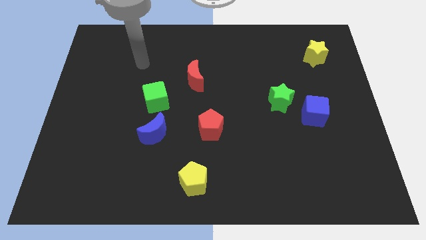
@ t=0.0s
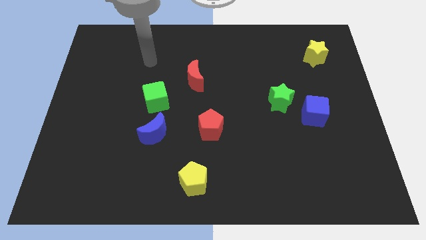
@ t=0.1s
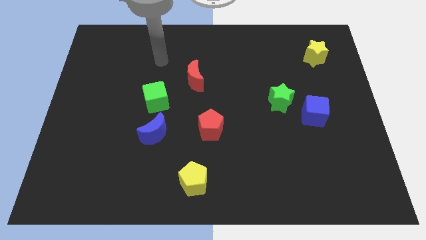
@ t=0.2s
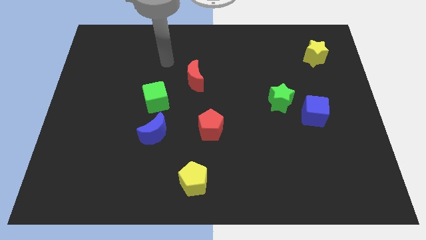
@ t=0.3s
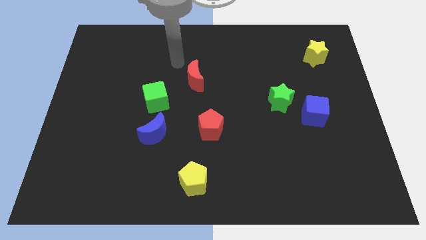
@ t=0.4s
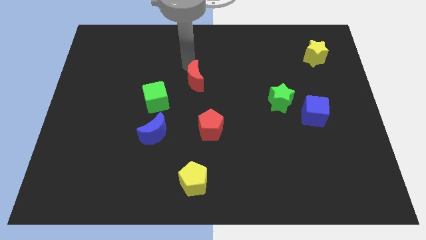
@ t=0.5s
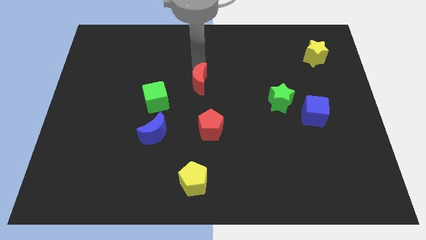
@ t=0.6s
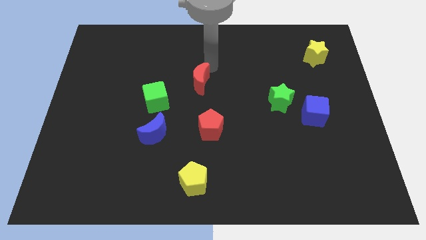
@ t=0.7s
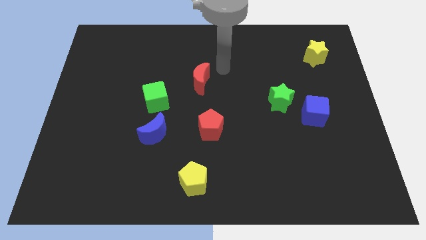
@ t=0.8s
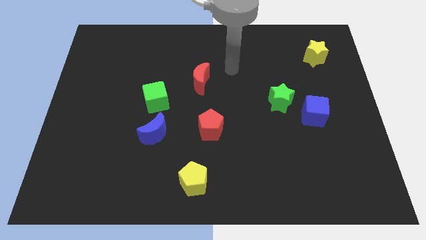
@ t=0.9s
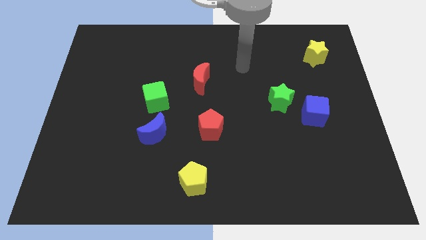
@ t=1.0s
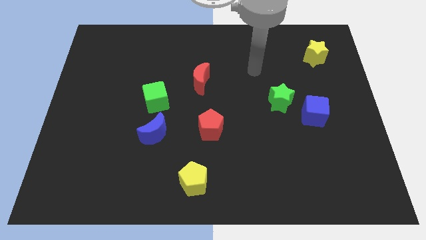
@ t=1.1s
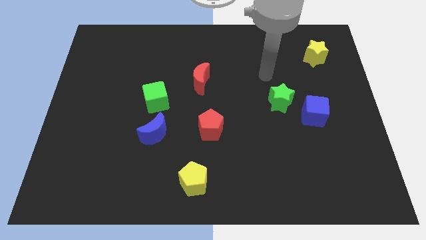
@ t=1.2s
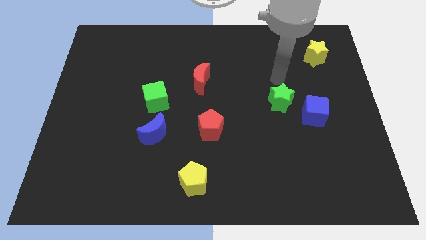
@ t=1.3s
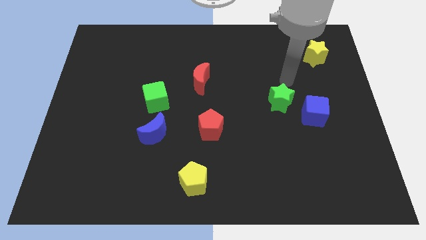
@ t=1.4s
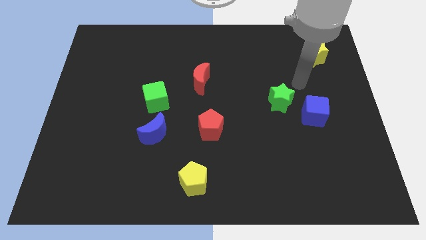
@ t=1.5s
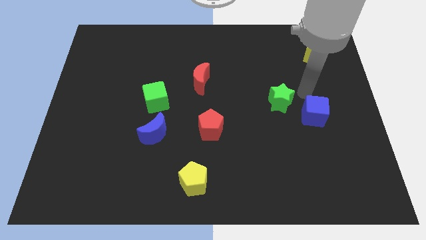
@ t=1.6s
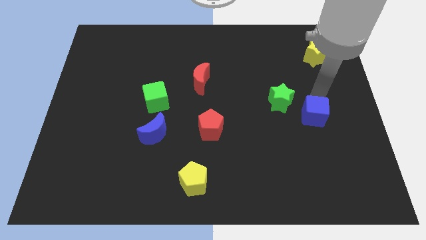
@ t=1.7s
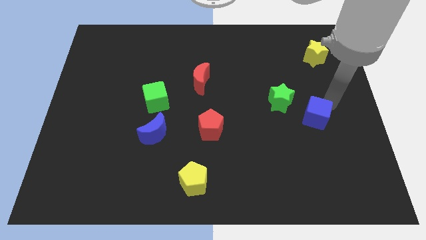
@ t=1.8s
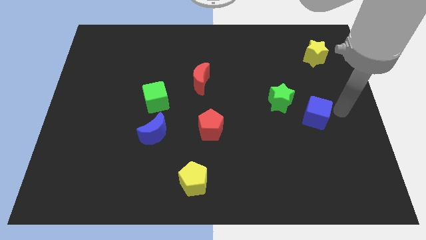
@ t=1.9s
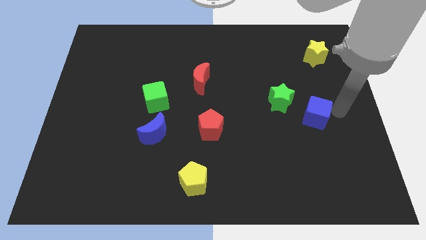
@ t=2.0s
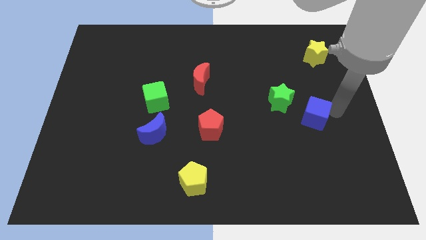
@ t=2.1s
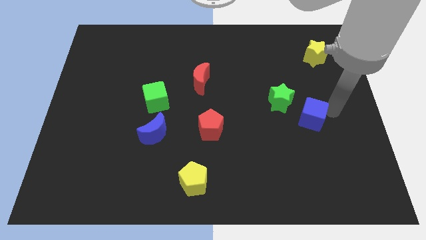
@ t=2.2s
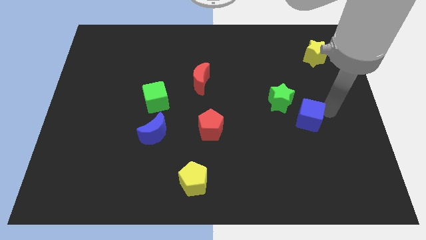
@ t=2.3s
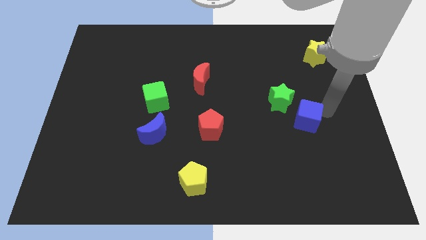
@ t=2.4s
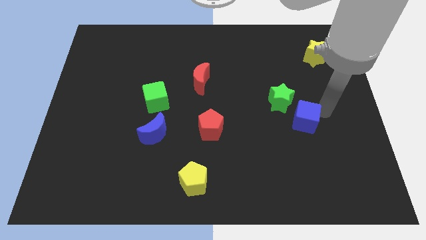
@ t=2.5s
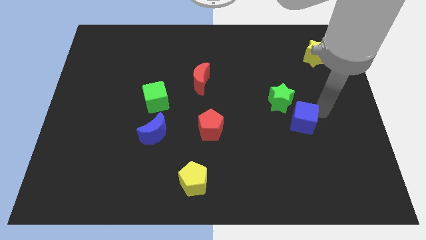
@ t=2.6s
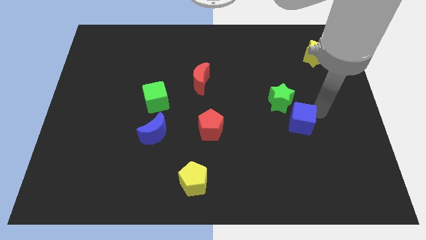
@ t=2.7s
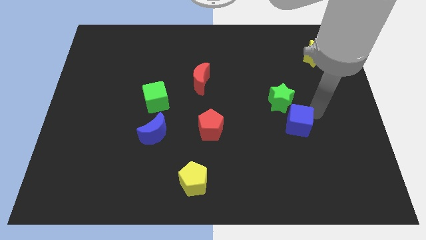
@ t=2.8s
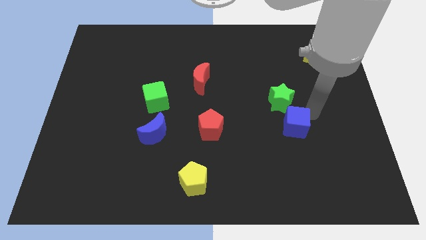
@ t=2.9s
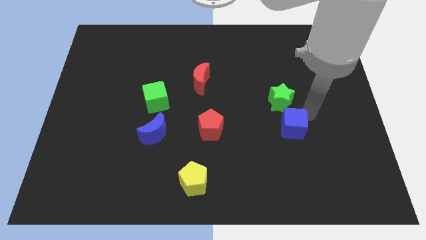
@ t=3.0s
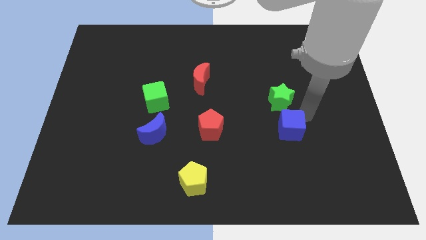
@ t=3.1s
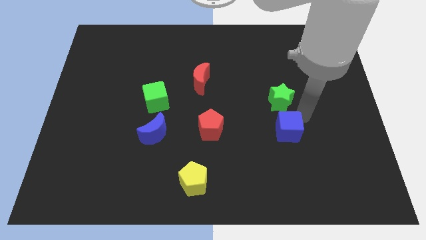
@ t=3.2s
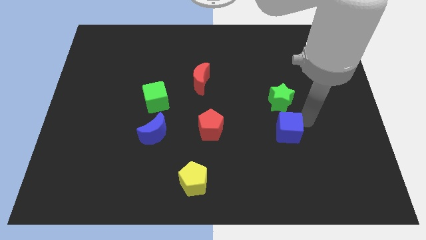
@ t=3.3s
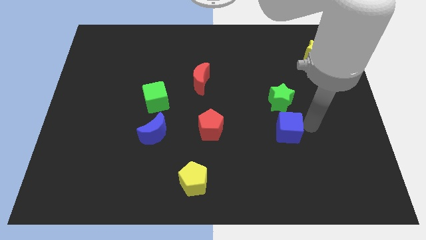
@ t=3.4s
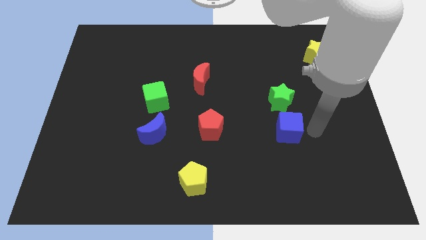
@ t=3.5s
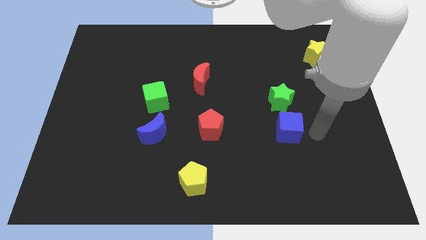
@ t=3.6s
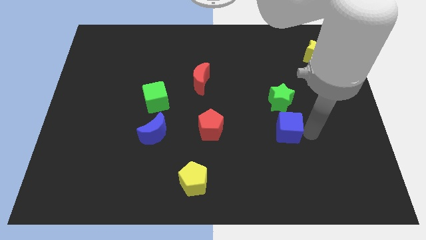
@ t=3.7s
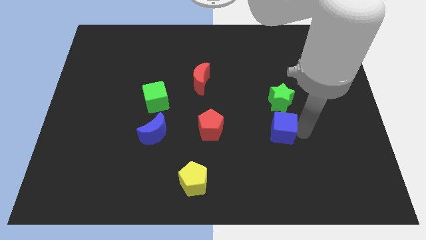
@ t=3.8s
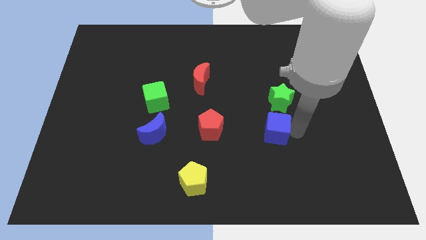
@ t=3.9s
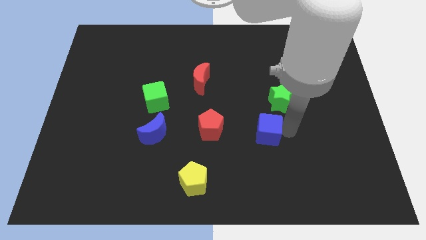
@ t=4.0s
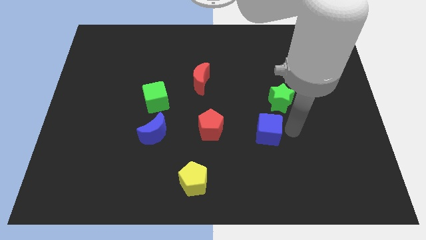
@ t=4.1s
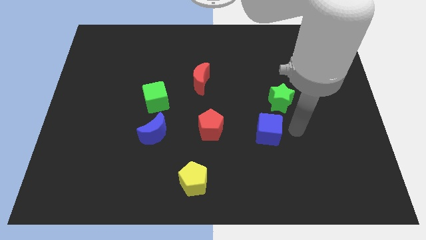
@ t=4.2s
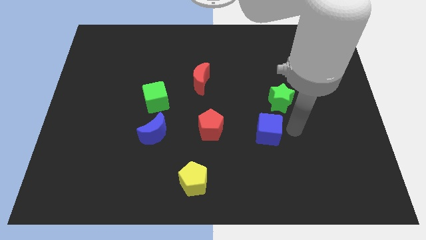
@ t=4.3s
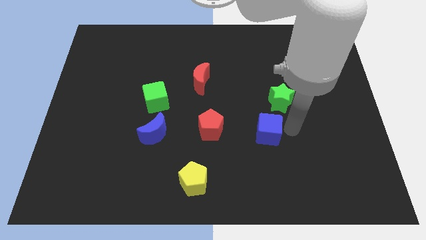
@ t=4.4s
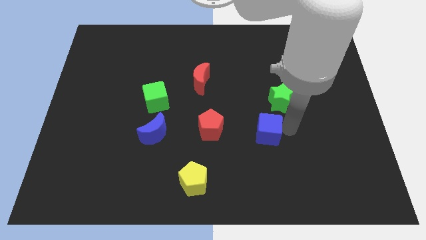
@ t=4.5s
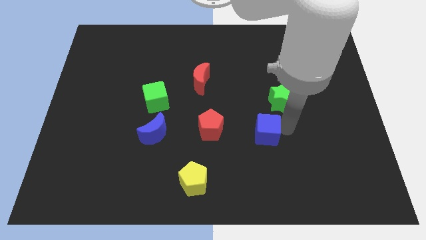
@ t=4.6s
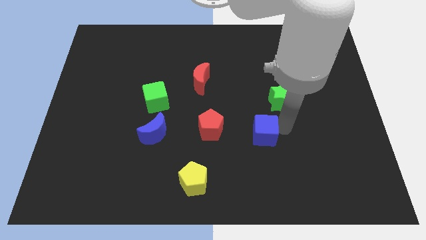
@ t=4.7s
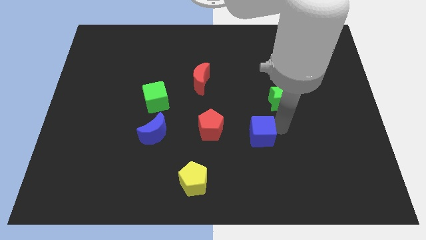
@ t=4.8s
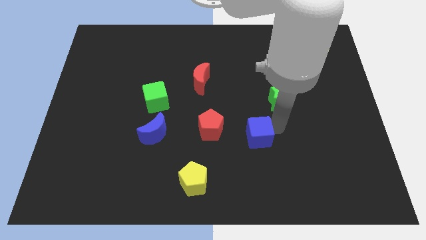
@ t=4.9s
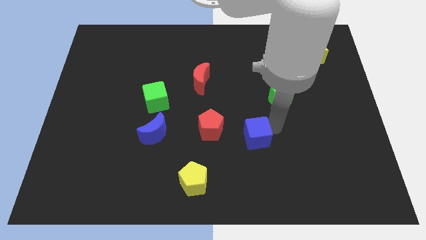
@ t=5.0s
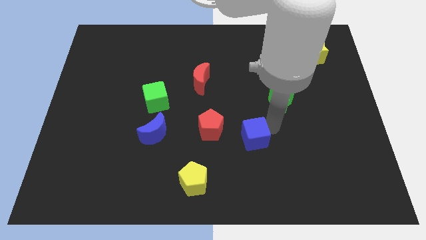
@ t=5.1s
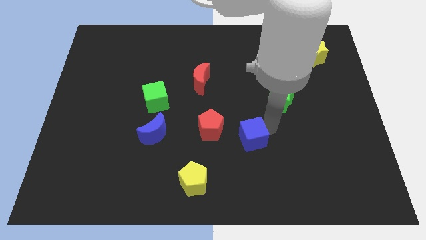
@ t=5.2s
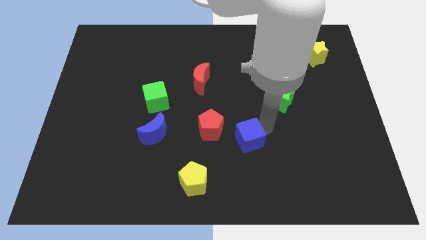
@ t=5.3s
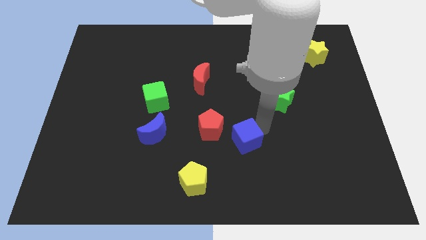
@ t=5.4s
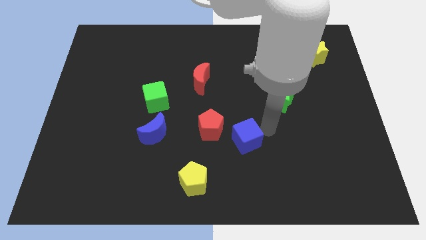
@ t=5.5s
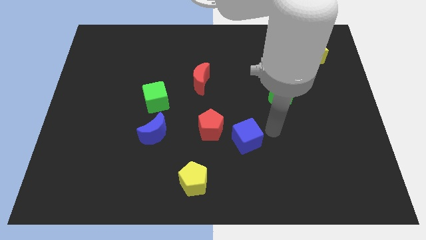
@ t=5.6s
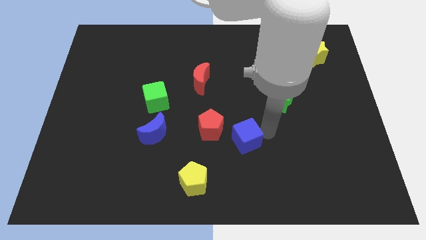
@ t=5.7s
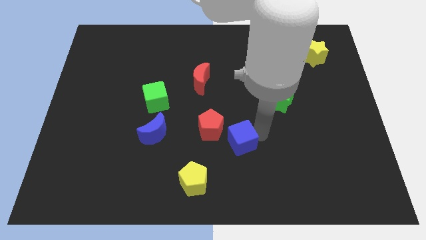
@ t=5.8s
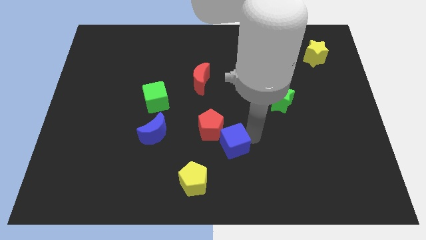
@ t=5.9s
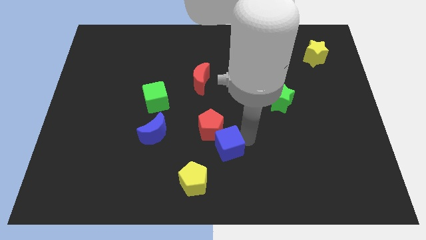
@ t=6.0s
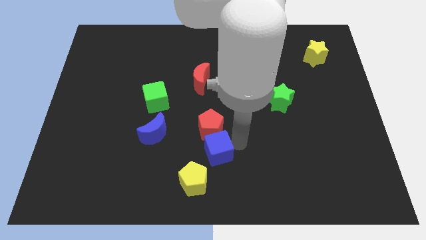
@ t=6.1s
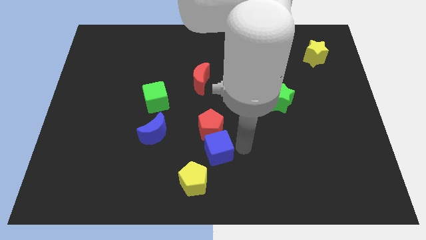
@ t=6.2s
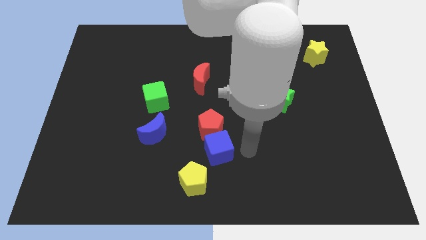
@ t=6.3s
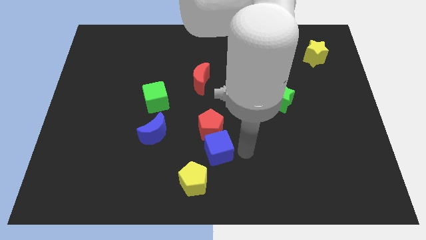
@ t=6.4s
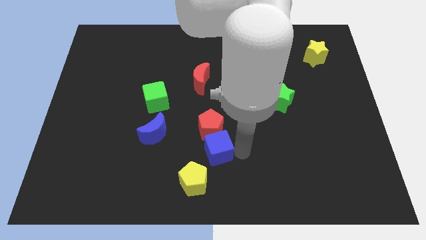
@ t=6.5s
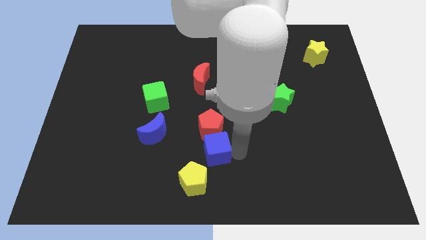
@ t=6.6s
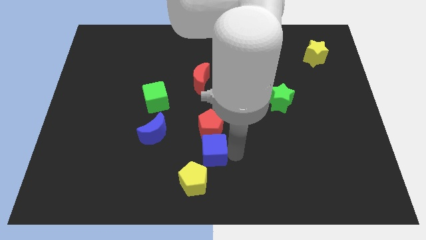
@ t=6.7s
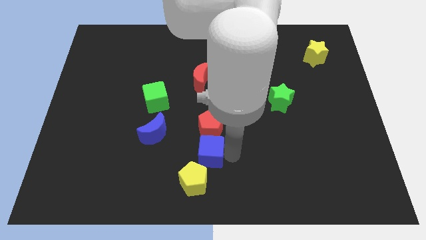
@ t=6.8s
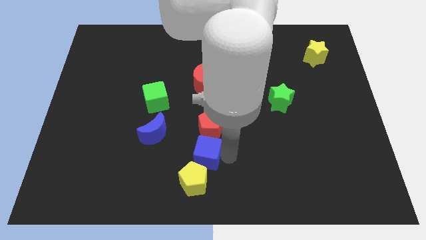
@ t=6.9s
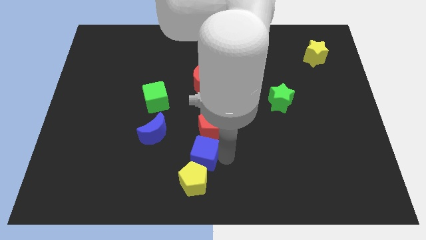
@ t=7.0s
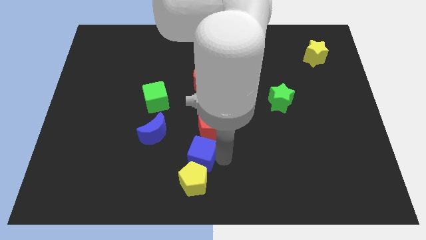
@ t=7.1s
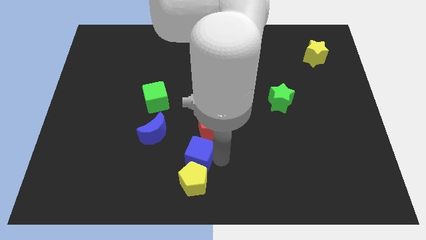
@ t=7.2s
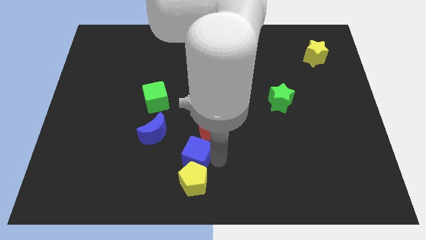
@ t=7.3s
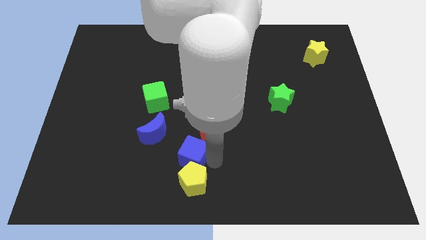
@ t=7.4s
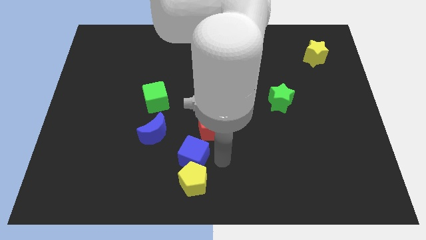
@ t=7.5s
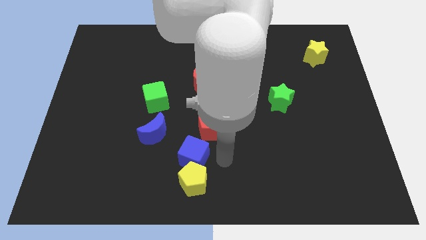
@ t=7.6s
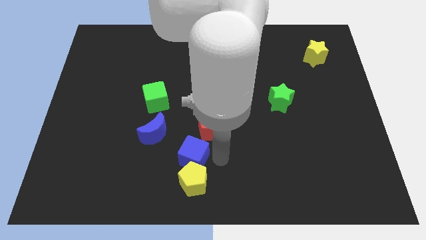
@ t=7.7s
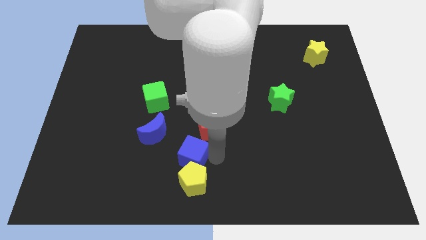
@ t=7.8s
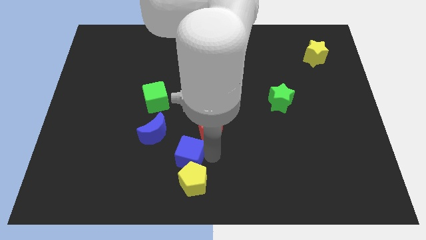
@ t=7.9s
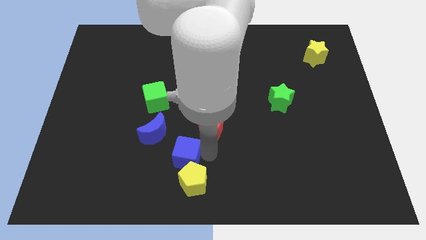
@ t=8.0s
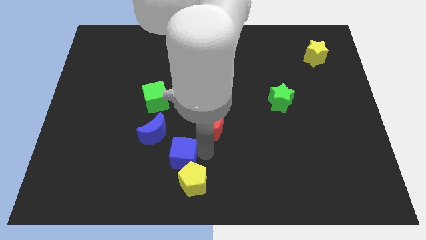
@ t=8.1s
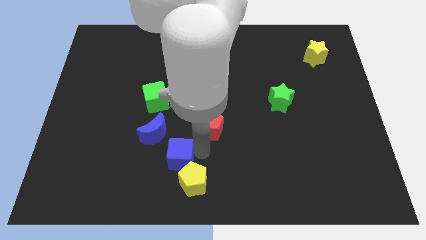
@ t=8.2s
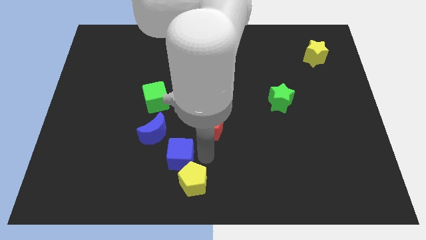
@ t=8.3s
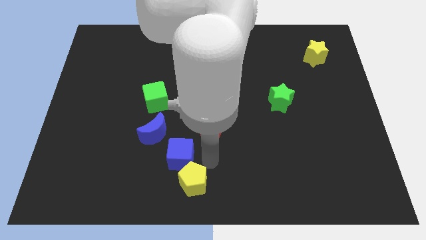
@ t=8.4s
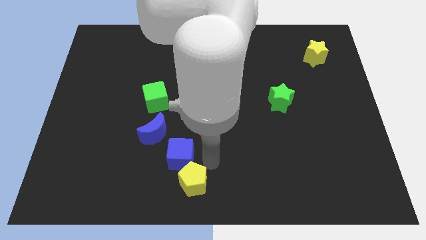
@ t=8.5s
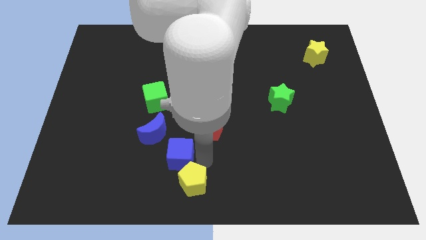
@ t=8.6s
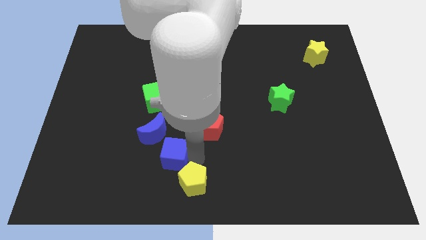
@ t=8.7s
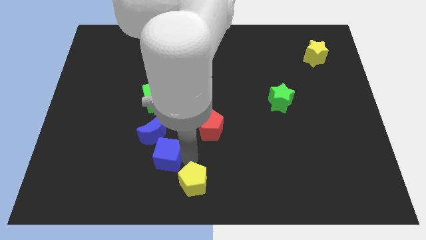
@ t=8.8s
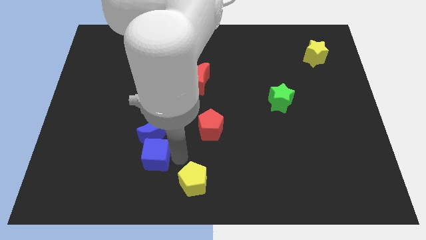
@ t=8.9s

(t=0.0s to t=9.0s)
slide the blue cube diagonally down and to the left of the blue moon
